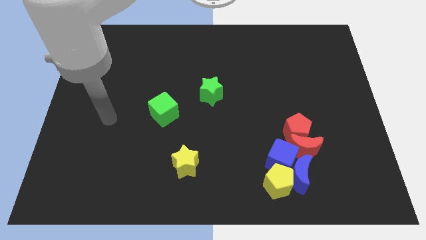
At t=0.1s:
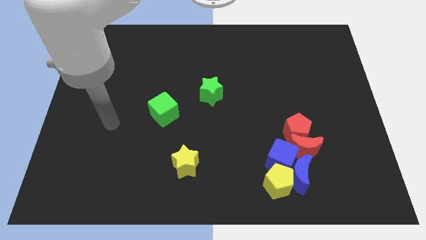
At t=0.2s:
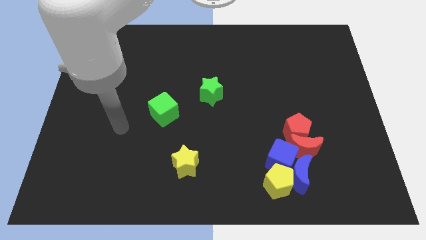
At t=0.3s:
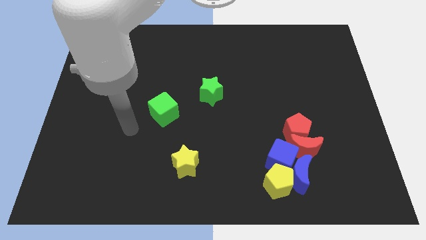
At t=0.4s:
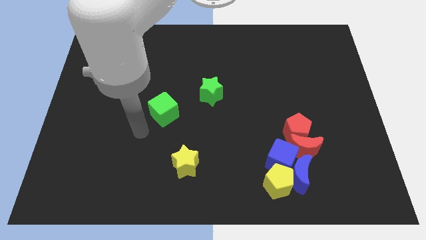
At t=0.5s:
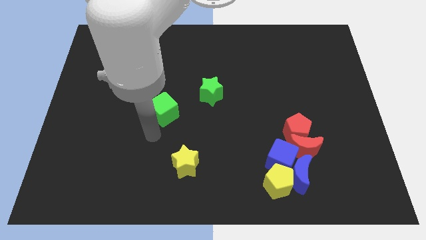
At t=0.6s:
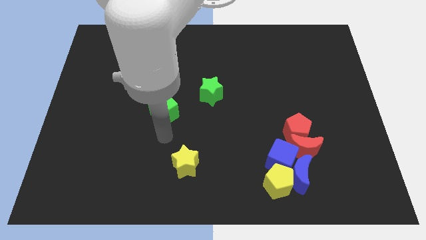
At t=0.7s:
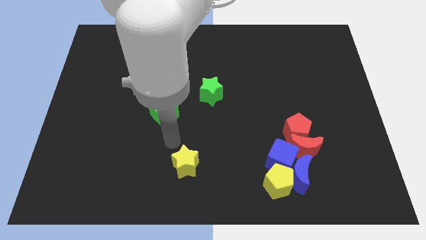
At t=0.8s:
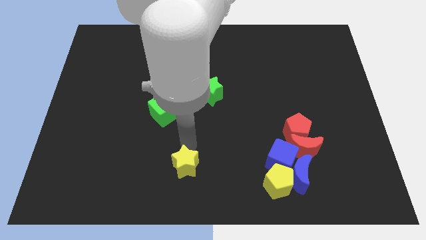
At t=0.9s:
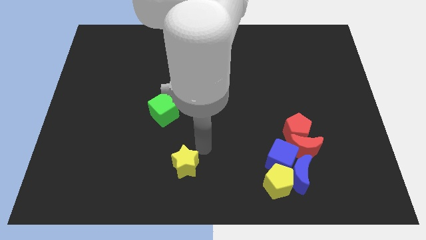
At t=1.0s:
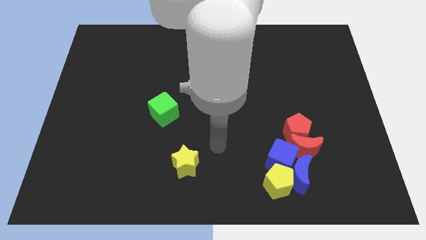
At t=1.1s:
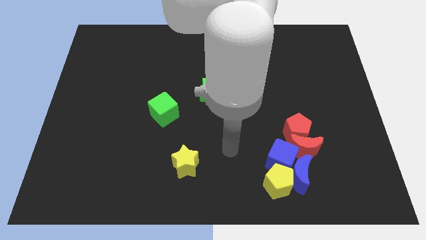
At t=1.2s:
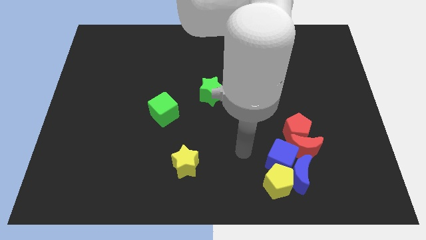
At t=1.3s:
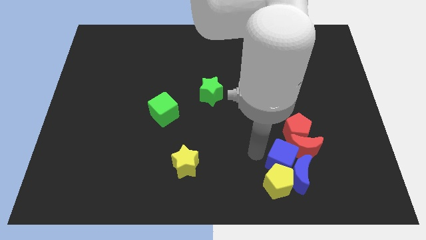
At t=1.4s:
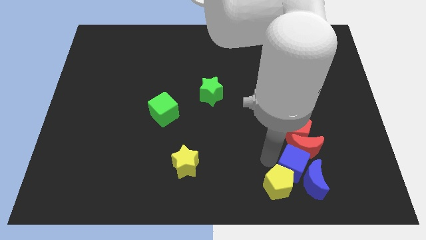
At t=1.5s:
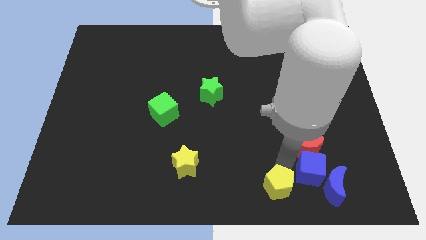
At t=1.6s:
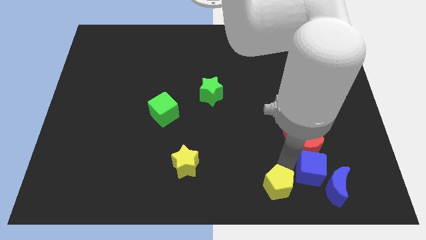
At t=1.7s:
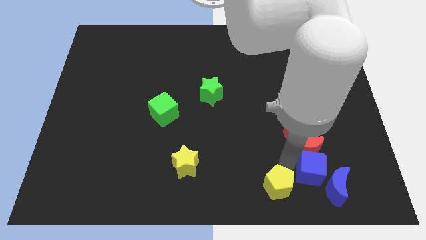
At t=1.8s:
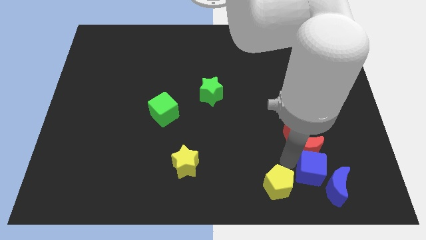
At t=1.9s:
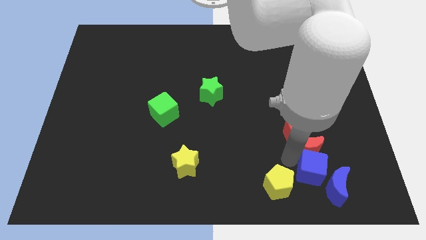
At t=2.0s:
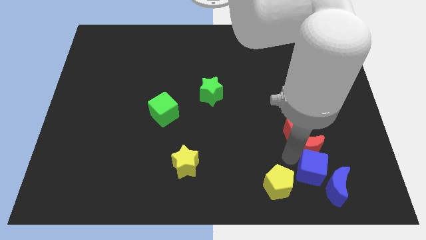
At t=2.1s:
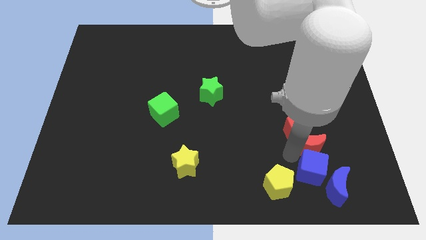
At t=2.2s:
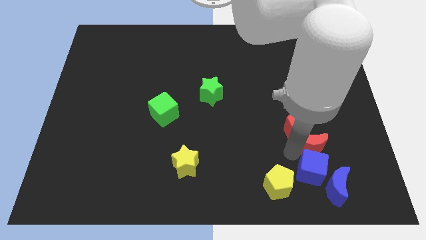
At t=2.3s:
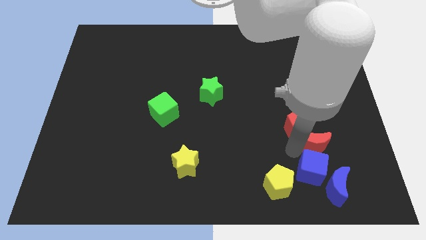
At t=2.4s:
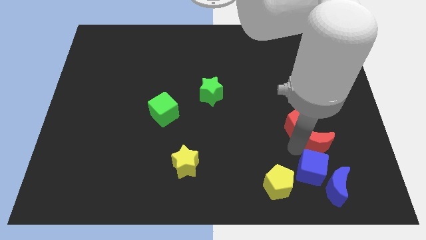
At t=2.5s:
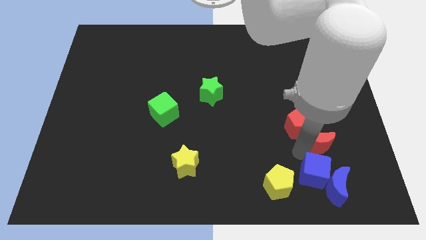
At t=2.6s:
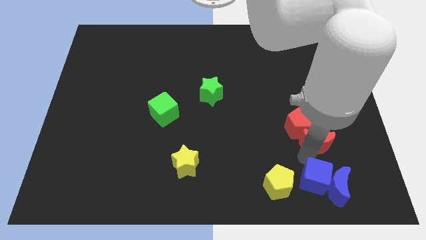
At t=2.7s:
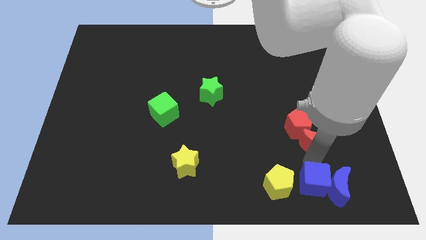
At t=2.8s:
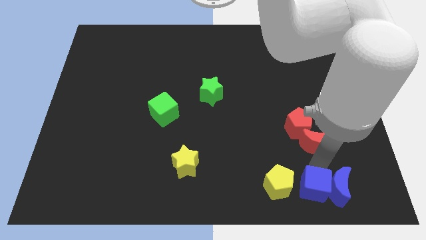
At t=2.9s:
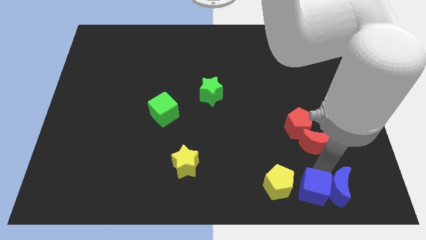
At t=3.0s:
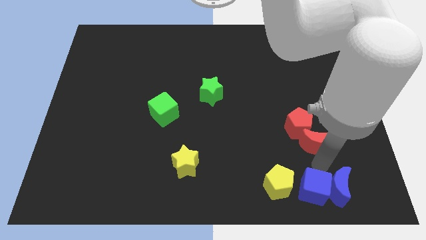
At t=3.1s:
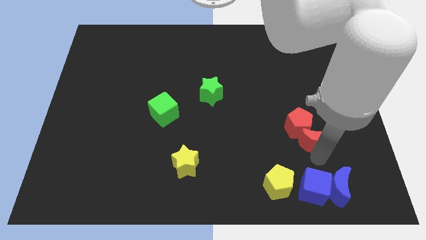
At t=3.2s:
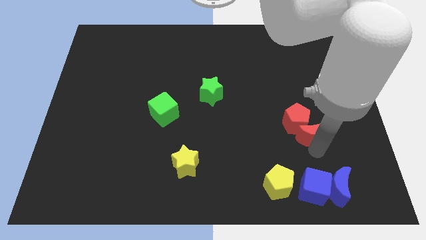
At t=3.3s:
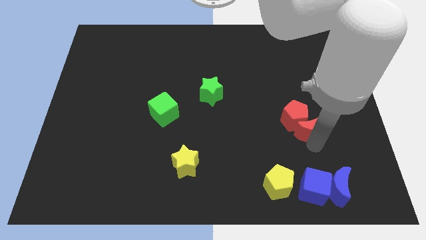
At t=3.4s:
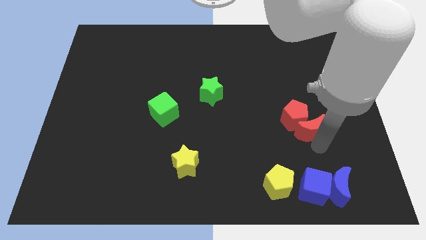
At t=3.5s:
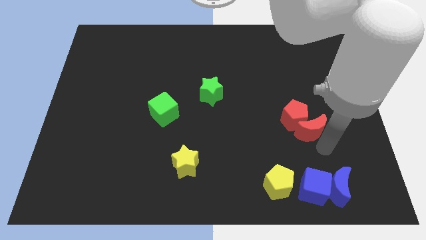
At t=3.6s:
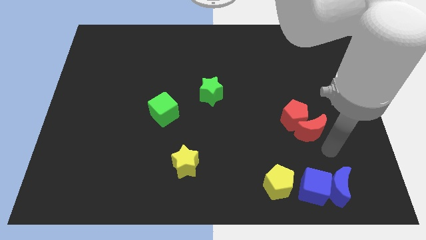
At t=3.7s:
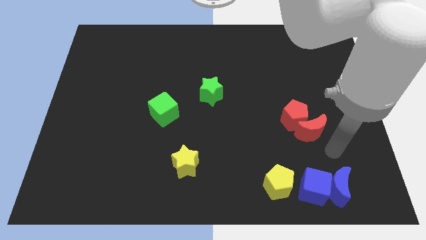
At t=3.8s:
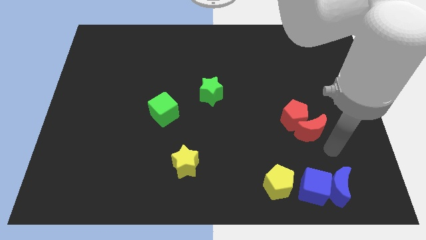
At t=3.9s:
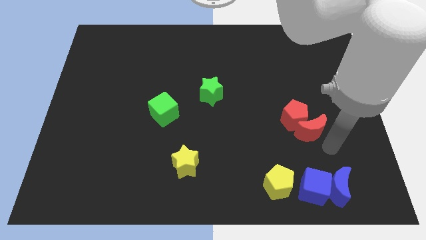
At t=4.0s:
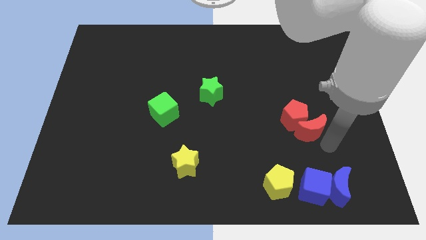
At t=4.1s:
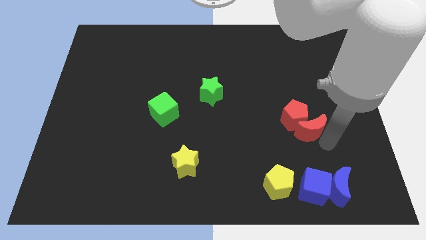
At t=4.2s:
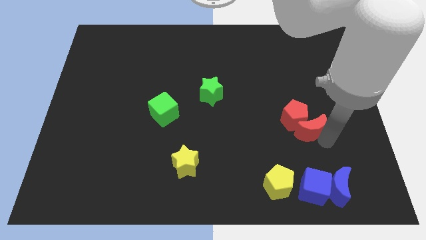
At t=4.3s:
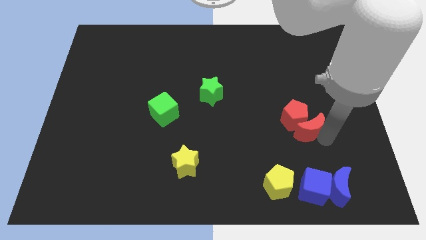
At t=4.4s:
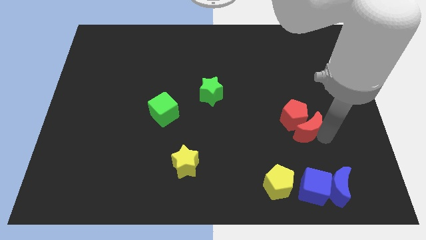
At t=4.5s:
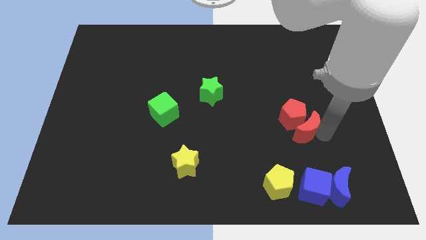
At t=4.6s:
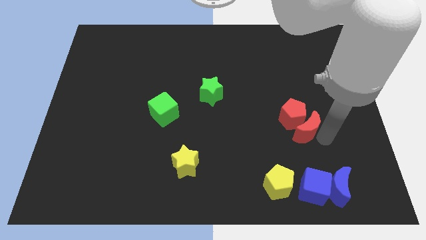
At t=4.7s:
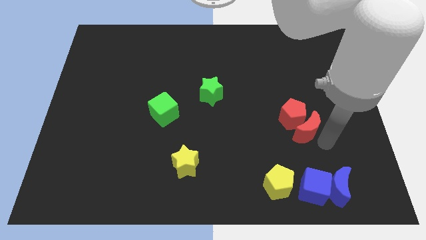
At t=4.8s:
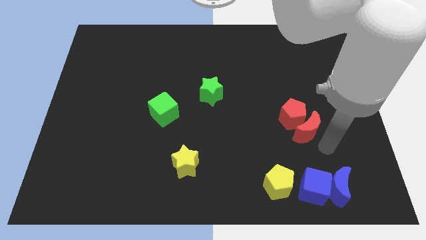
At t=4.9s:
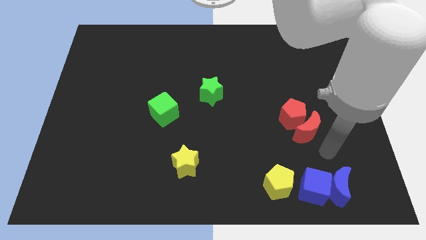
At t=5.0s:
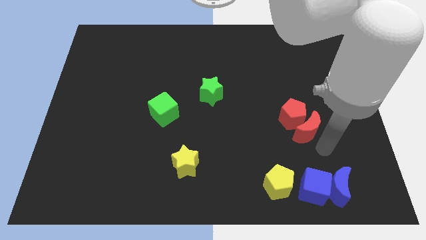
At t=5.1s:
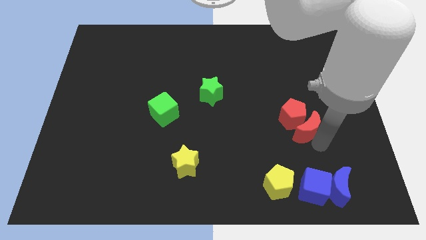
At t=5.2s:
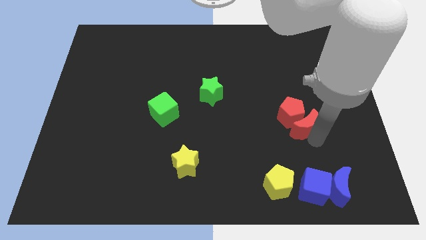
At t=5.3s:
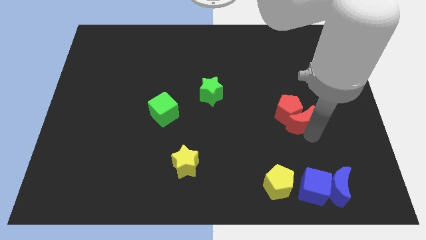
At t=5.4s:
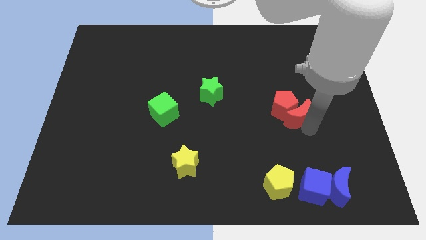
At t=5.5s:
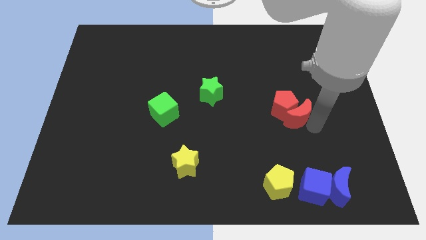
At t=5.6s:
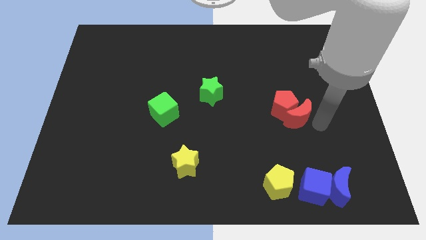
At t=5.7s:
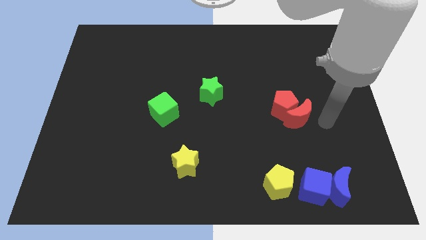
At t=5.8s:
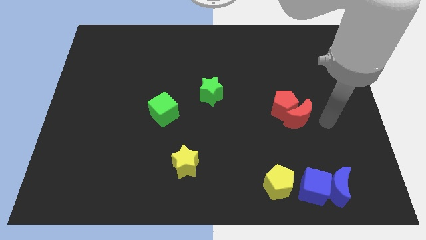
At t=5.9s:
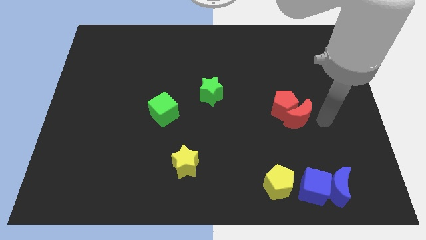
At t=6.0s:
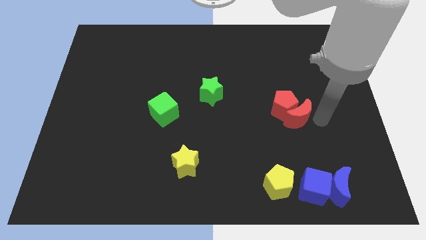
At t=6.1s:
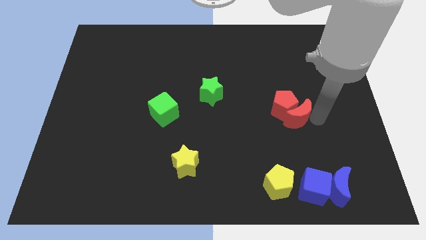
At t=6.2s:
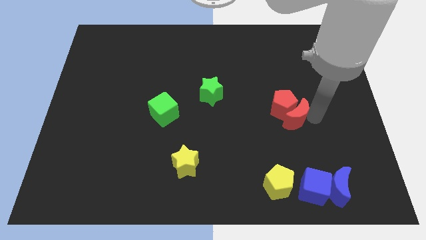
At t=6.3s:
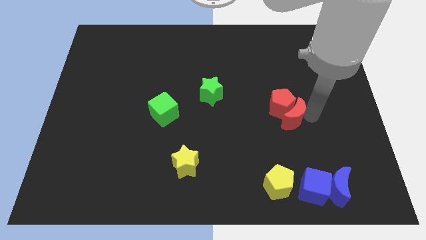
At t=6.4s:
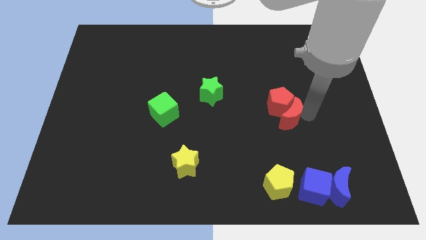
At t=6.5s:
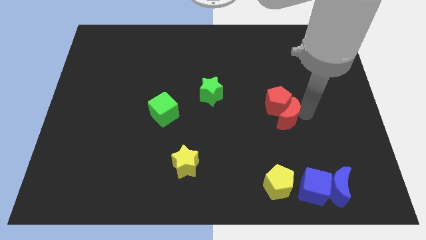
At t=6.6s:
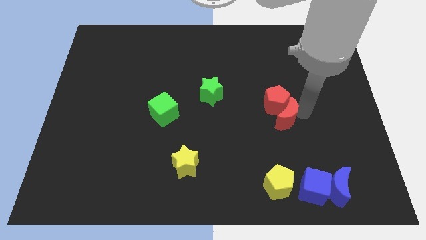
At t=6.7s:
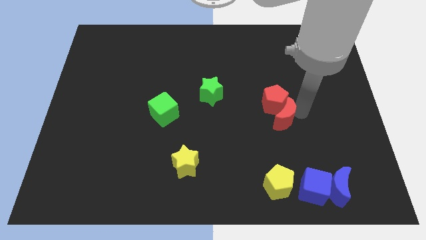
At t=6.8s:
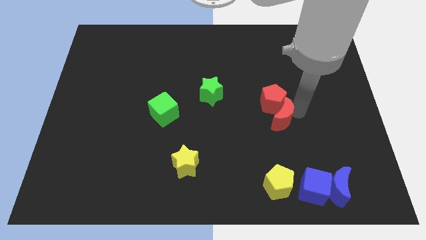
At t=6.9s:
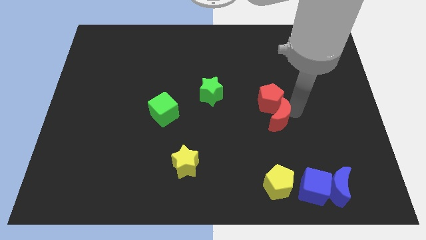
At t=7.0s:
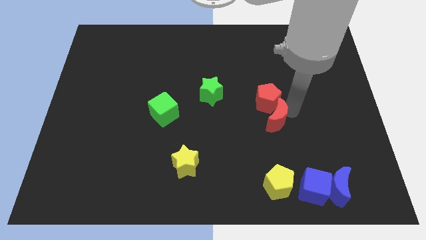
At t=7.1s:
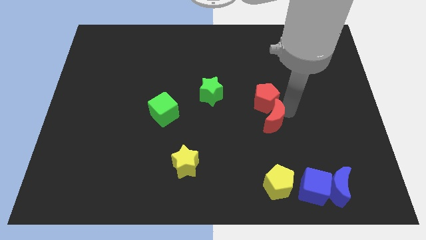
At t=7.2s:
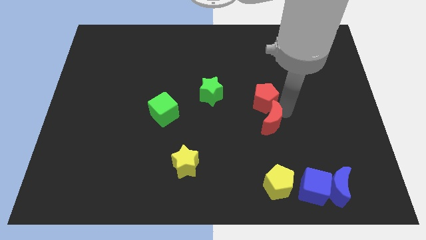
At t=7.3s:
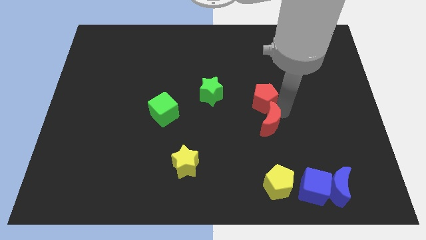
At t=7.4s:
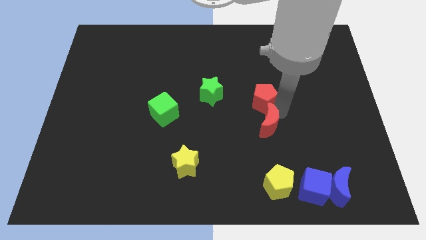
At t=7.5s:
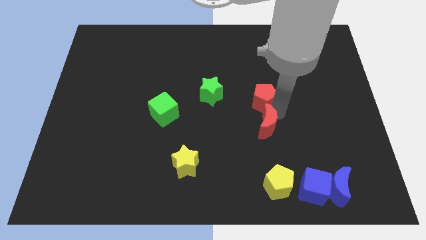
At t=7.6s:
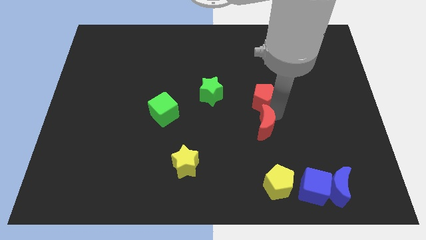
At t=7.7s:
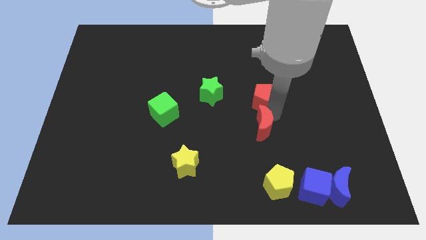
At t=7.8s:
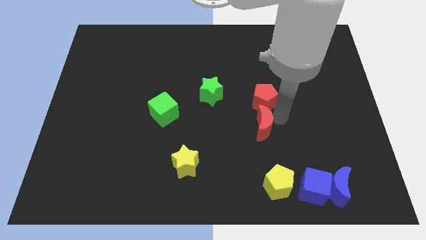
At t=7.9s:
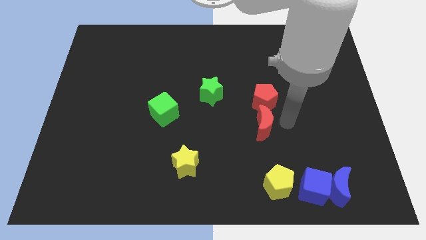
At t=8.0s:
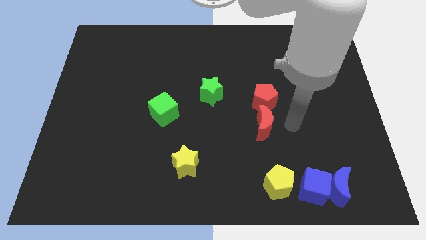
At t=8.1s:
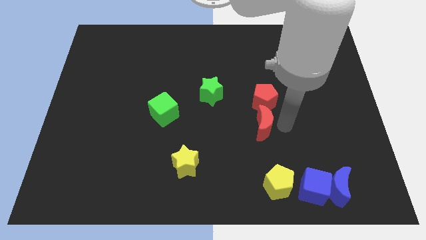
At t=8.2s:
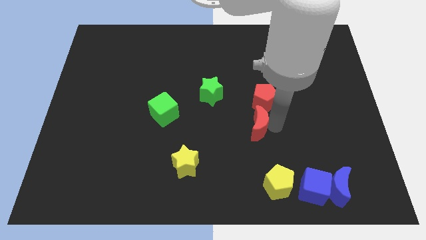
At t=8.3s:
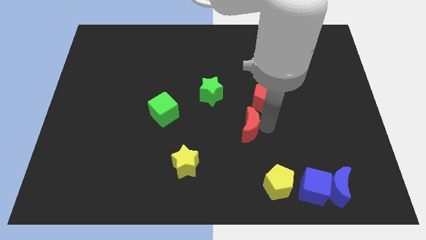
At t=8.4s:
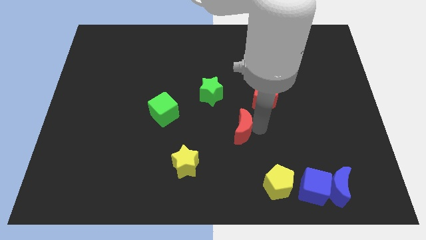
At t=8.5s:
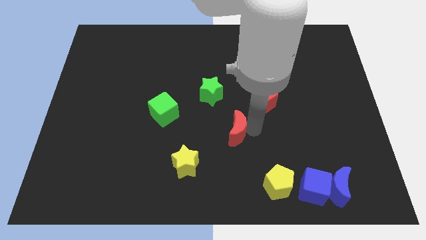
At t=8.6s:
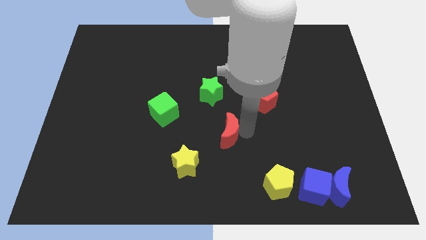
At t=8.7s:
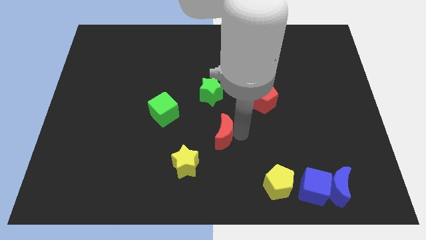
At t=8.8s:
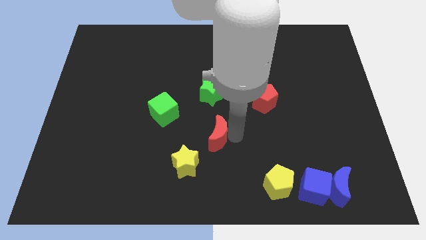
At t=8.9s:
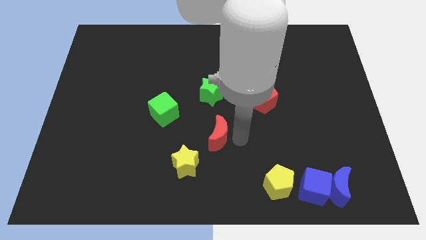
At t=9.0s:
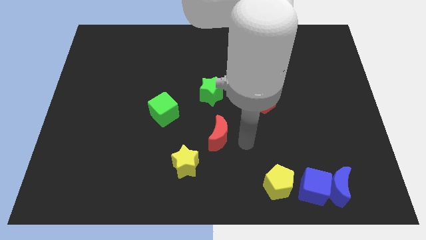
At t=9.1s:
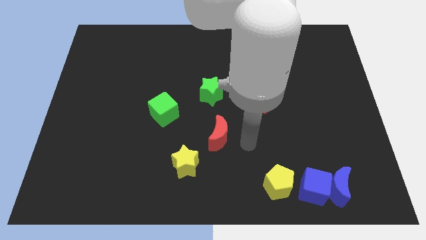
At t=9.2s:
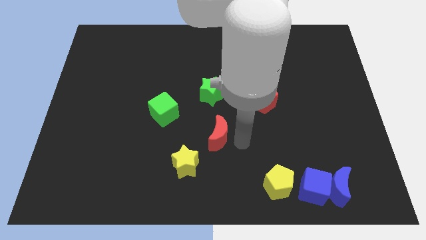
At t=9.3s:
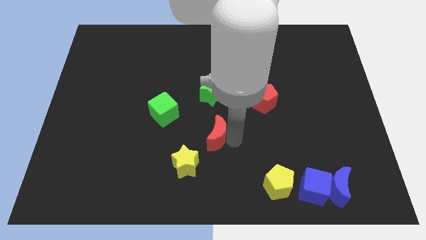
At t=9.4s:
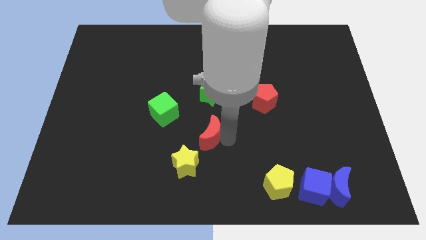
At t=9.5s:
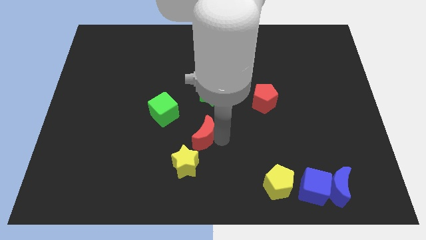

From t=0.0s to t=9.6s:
push the red moon left
